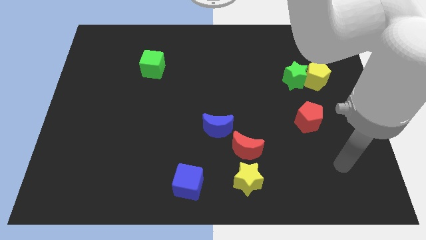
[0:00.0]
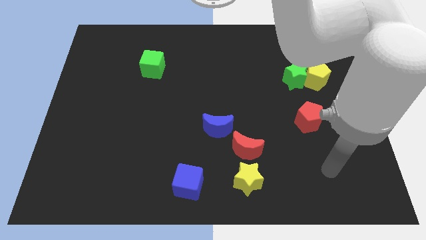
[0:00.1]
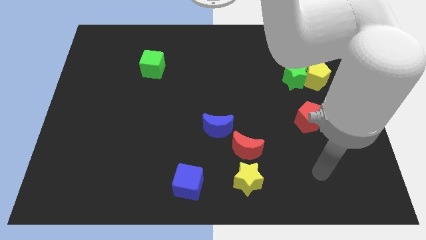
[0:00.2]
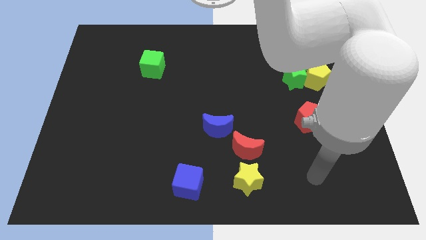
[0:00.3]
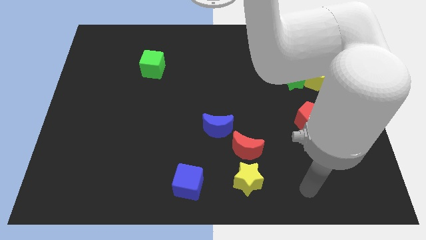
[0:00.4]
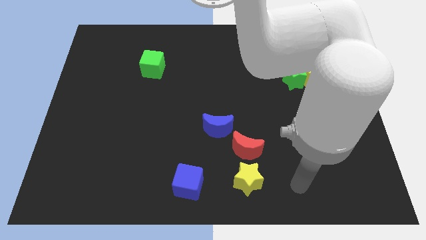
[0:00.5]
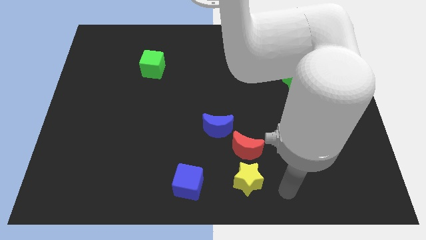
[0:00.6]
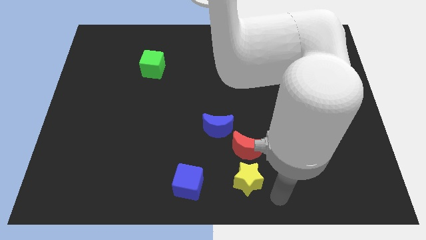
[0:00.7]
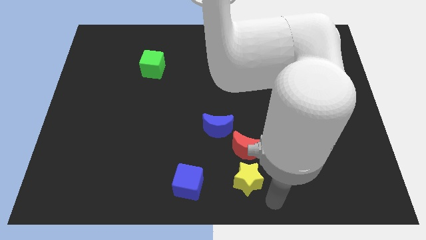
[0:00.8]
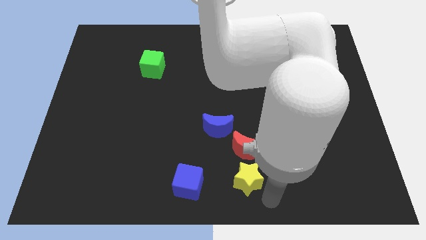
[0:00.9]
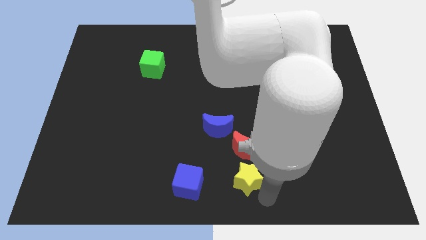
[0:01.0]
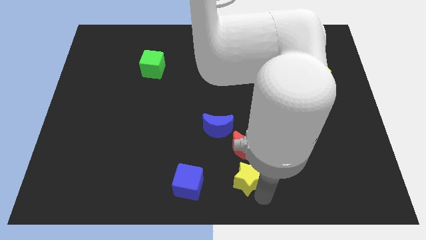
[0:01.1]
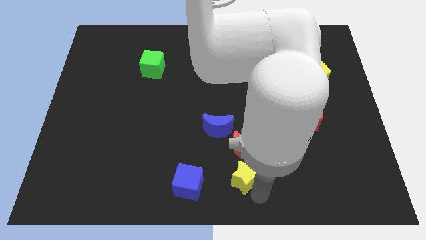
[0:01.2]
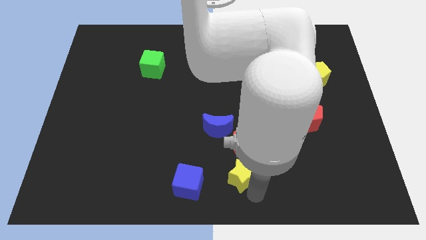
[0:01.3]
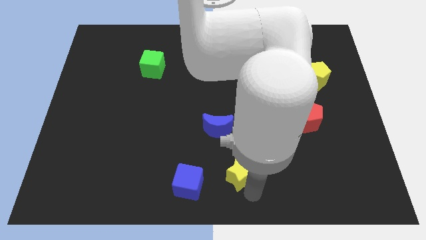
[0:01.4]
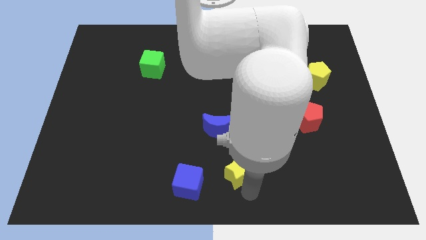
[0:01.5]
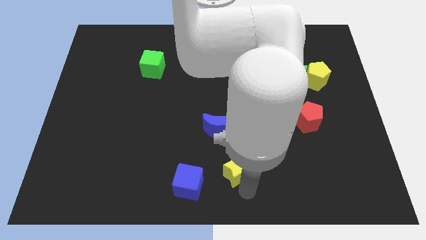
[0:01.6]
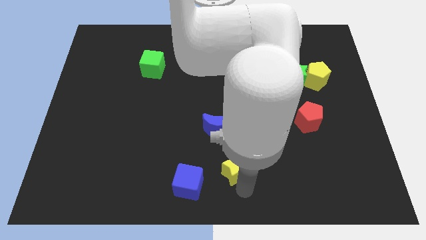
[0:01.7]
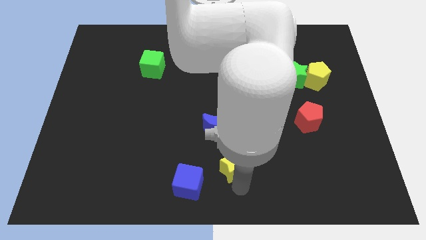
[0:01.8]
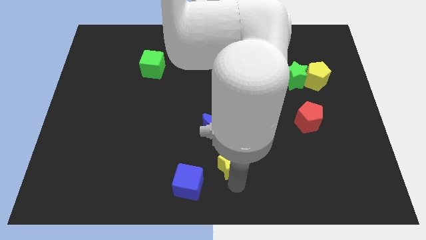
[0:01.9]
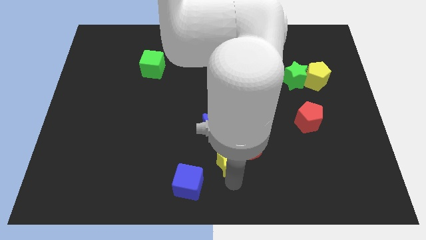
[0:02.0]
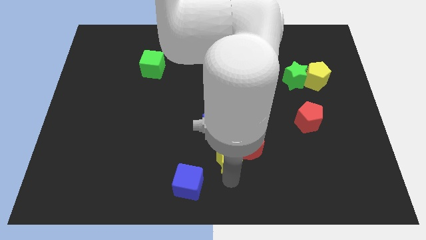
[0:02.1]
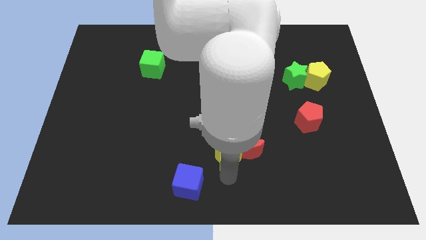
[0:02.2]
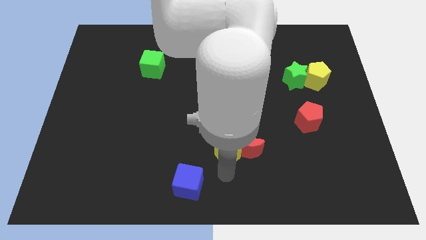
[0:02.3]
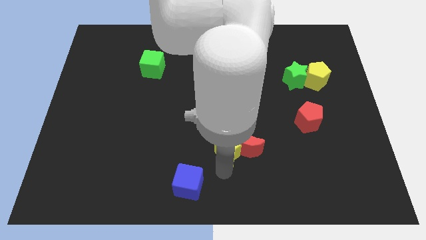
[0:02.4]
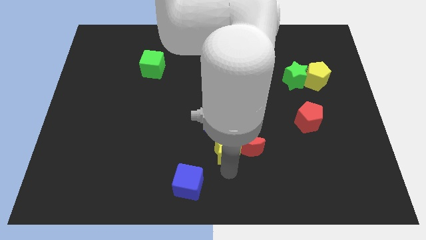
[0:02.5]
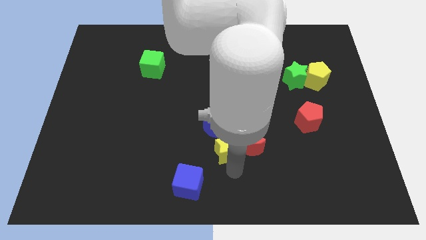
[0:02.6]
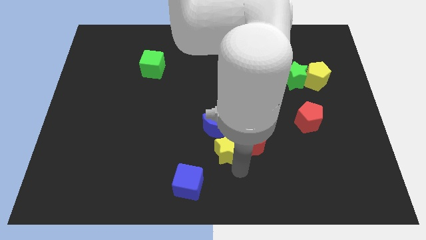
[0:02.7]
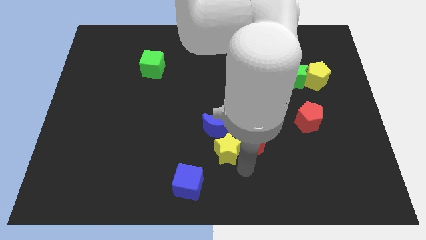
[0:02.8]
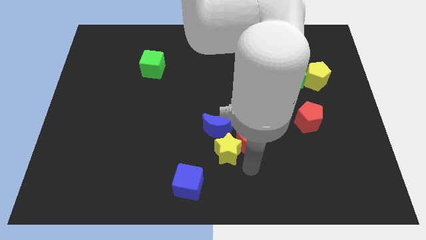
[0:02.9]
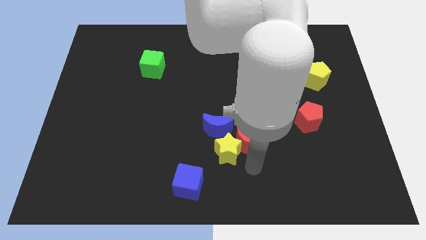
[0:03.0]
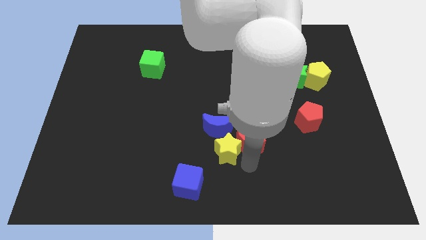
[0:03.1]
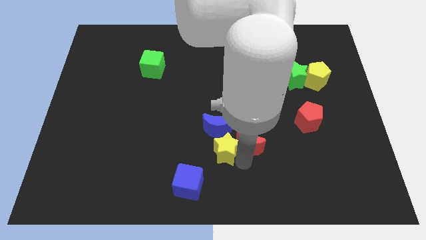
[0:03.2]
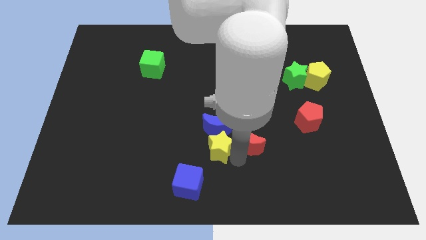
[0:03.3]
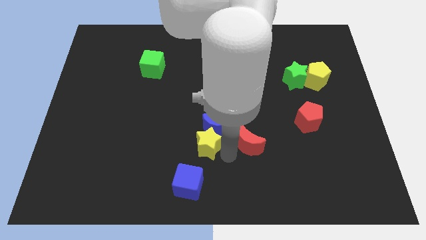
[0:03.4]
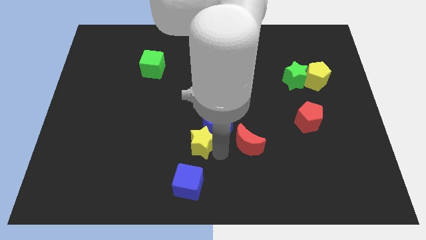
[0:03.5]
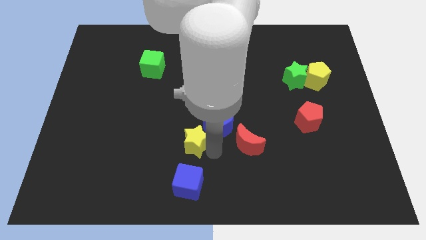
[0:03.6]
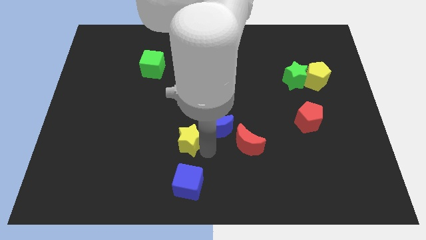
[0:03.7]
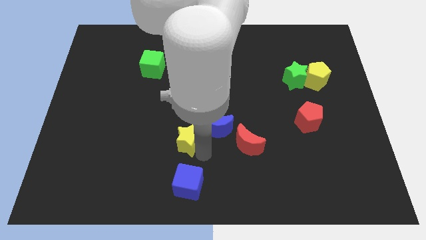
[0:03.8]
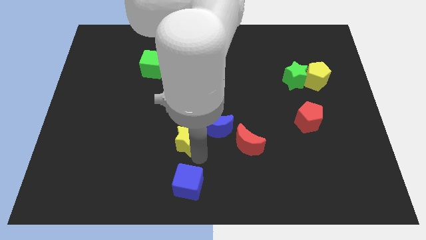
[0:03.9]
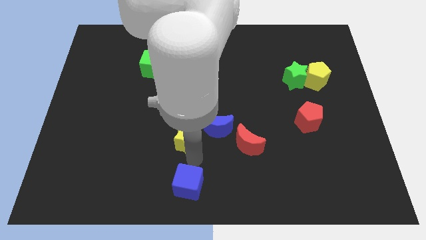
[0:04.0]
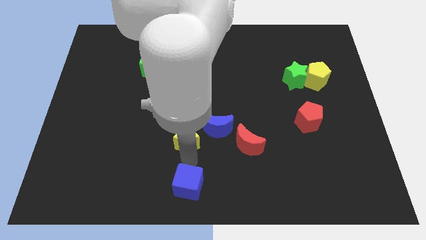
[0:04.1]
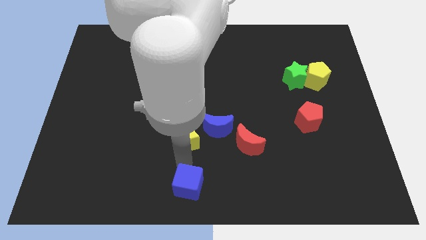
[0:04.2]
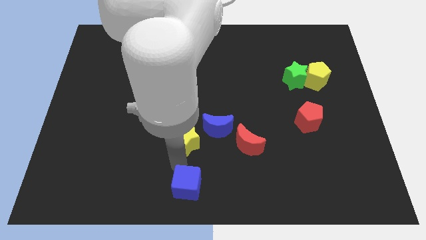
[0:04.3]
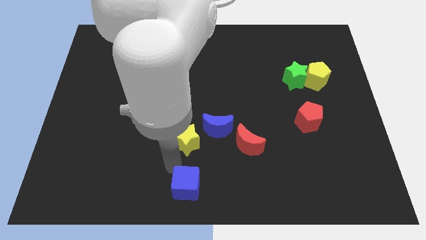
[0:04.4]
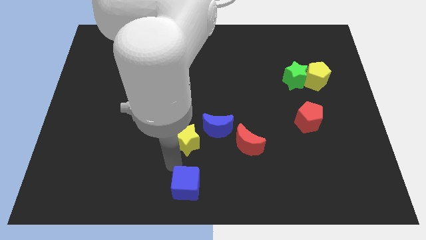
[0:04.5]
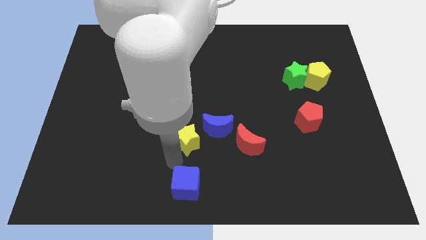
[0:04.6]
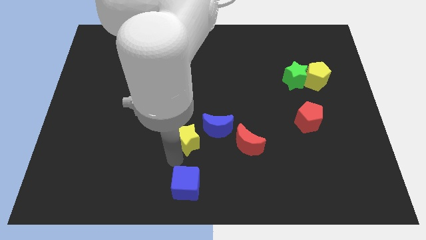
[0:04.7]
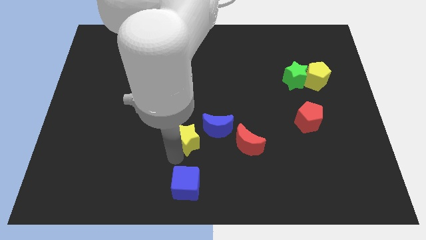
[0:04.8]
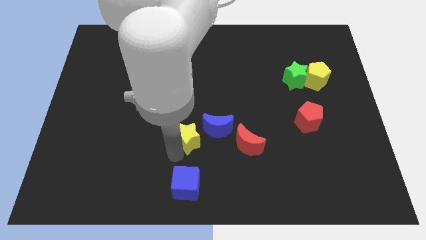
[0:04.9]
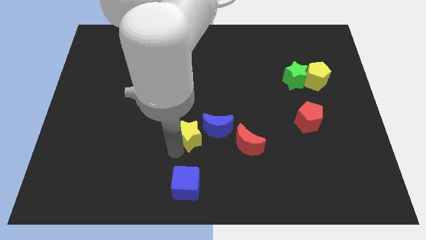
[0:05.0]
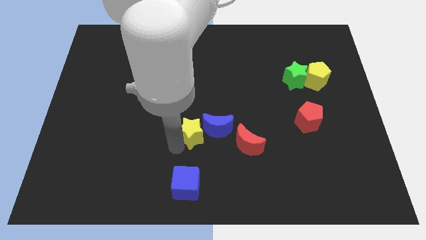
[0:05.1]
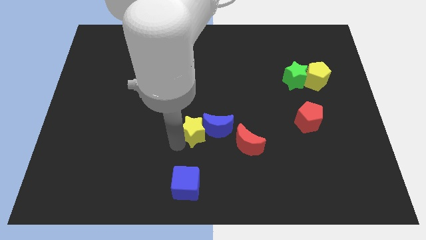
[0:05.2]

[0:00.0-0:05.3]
move the yellow star to the top left side of the blue moon
